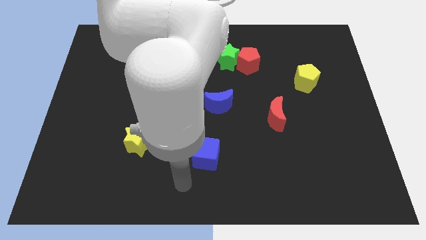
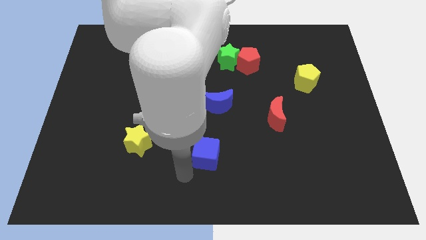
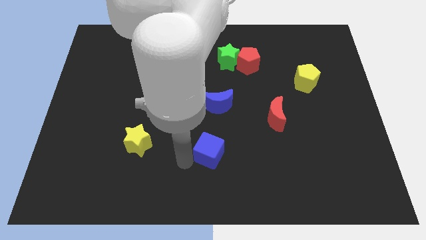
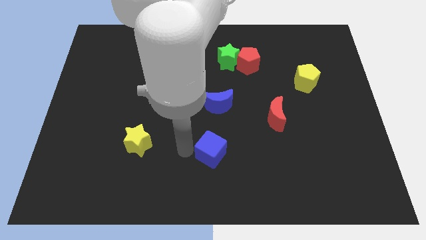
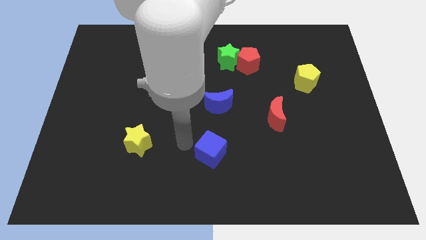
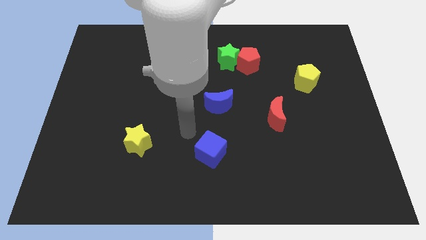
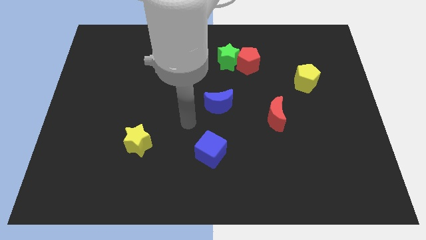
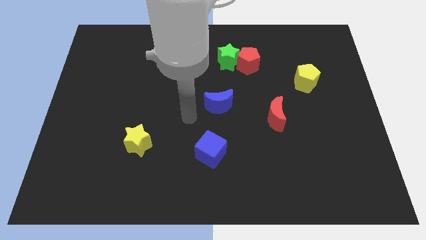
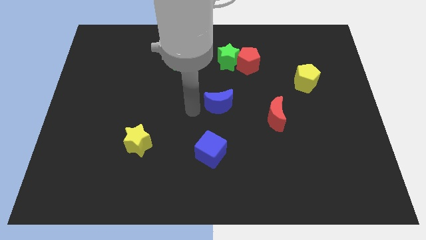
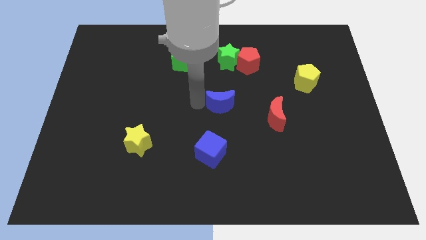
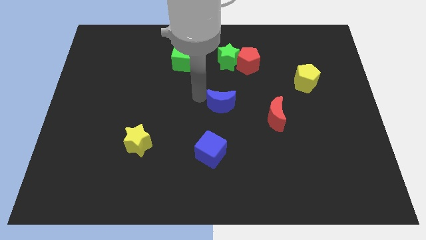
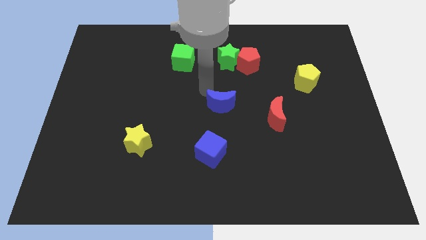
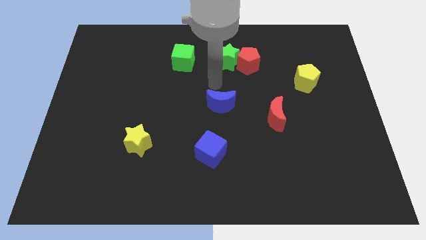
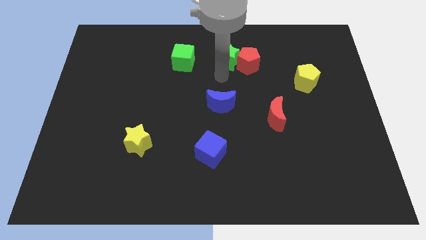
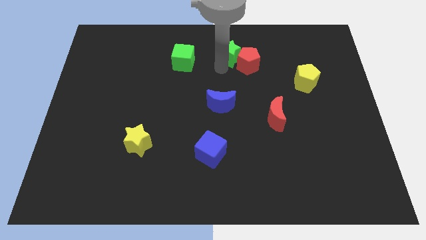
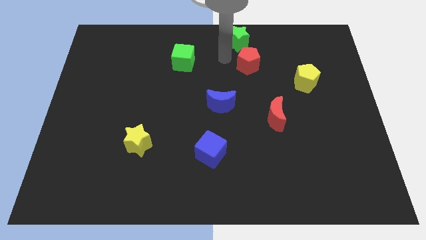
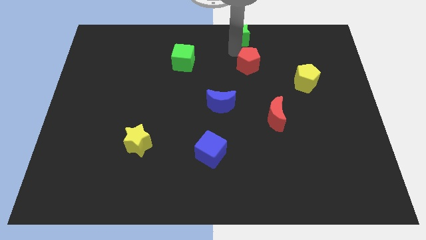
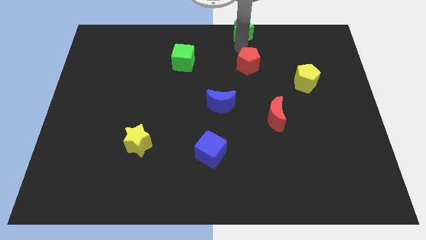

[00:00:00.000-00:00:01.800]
move the red pentagon away from the green star

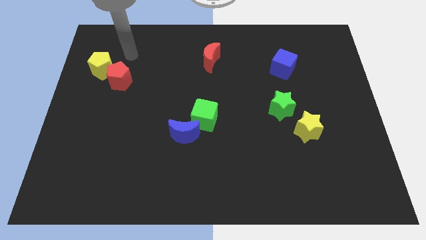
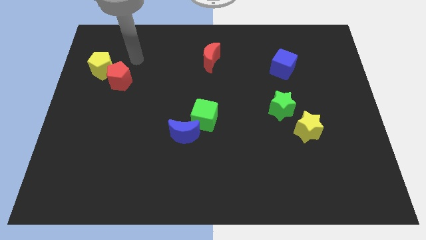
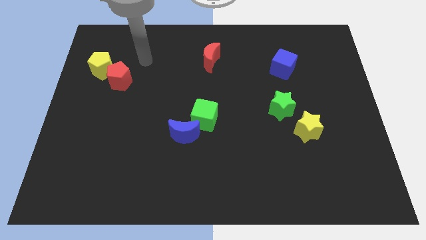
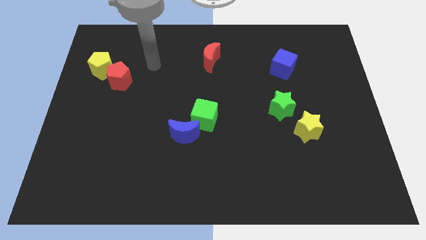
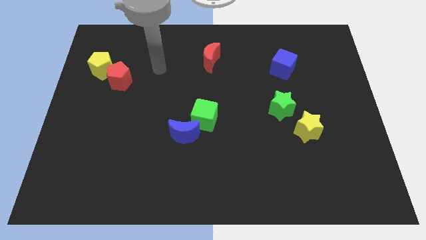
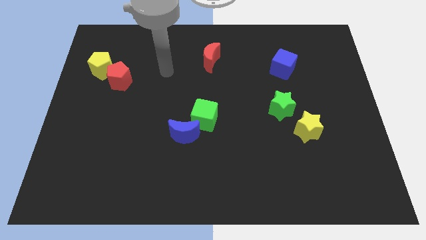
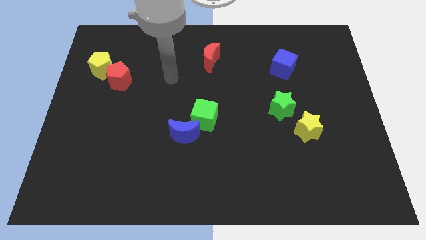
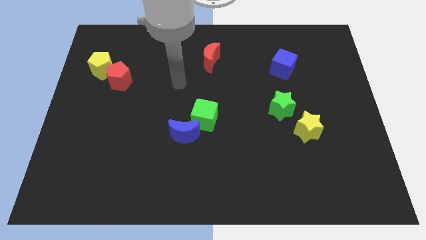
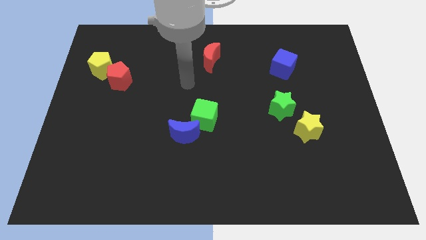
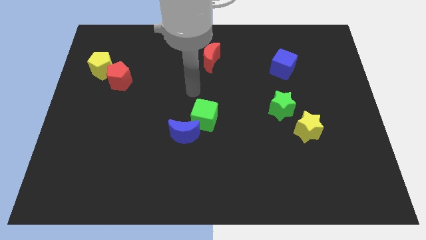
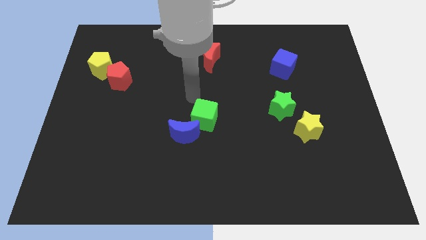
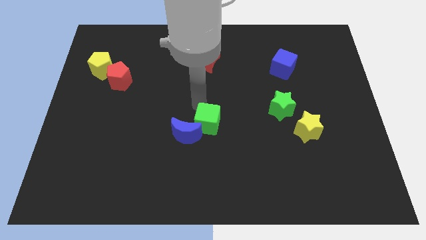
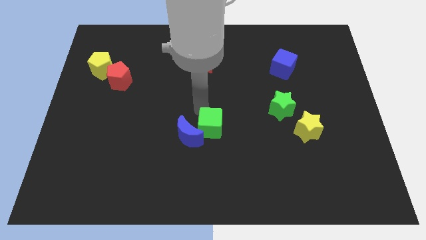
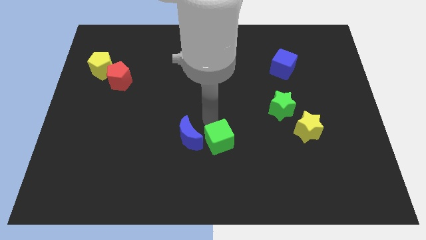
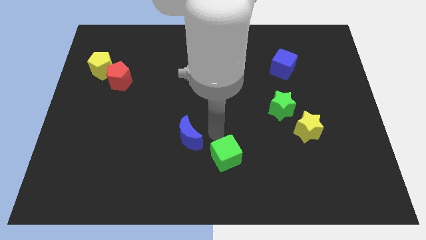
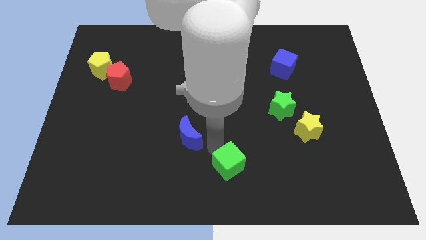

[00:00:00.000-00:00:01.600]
move the blue moon away from the green cube

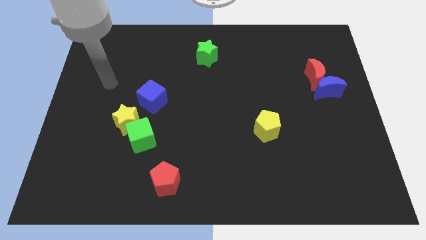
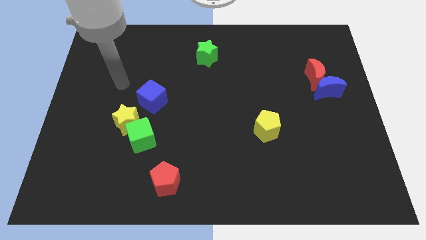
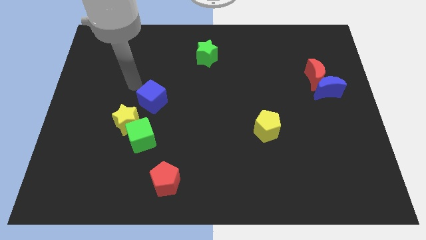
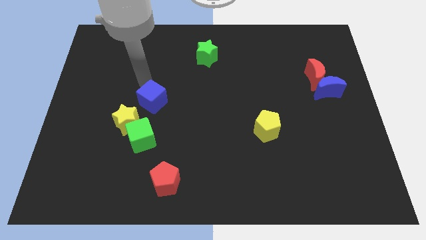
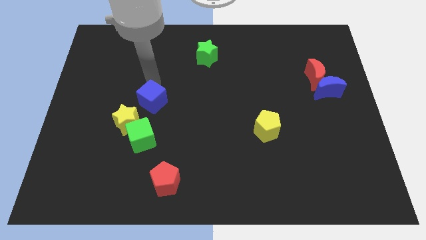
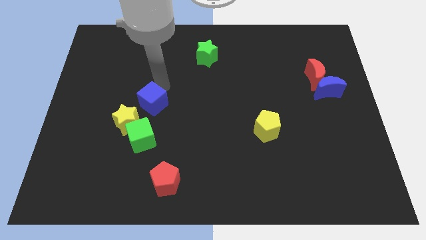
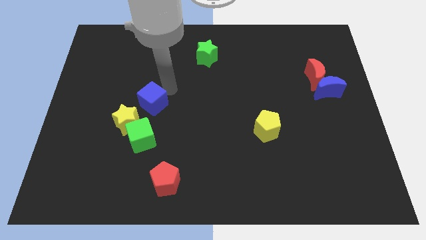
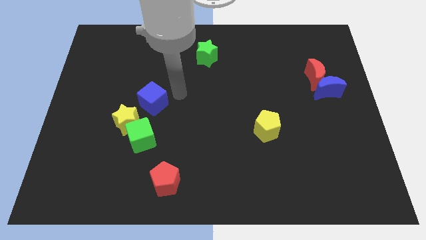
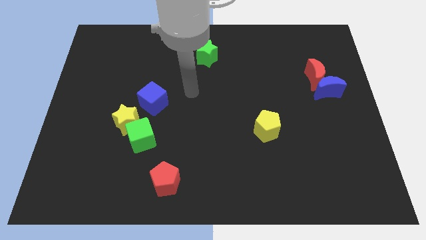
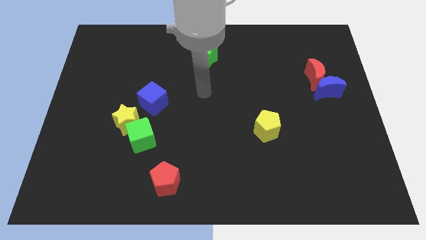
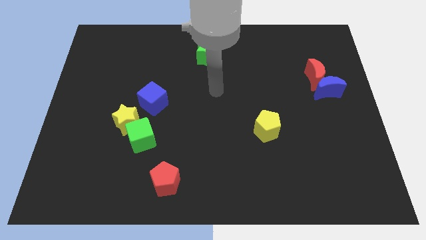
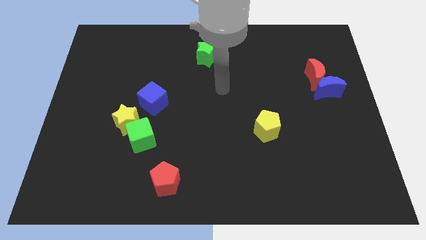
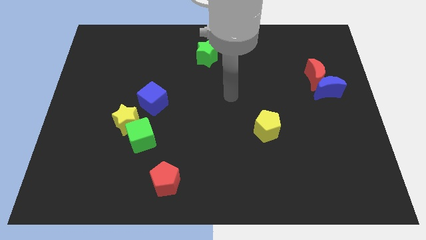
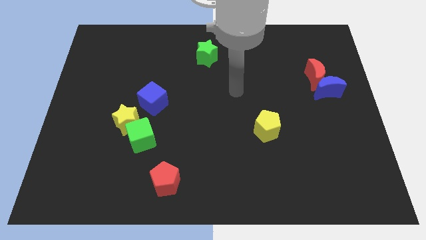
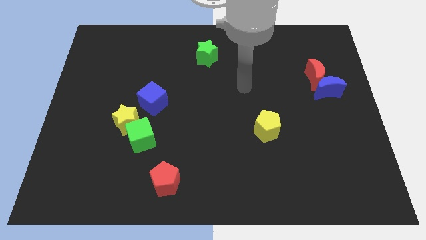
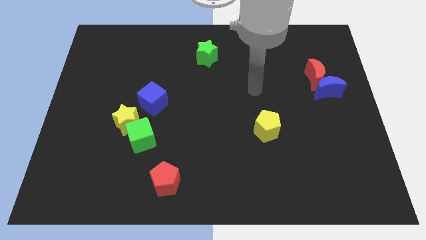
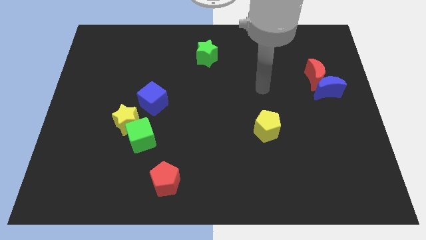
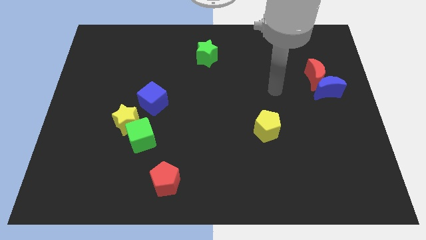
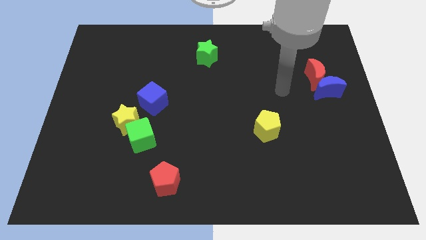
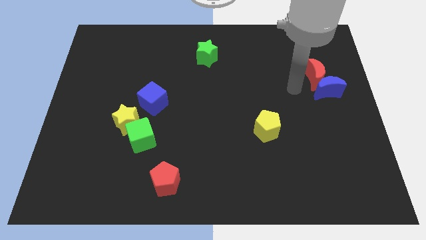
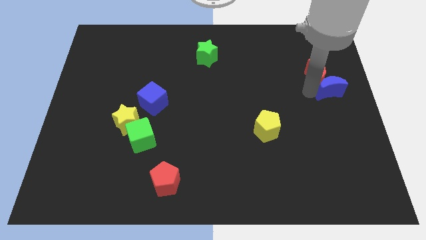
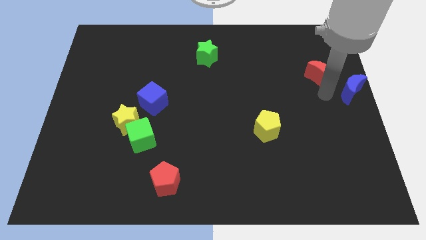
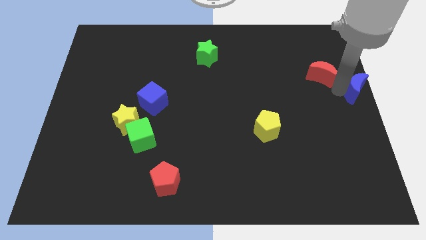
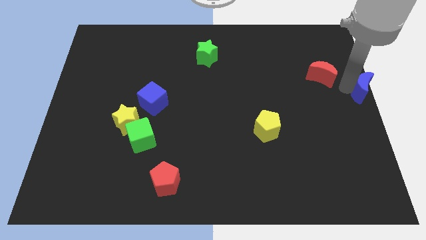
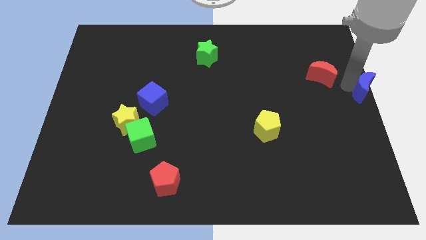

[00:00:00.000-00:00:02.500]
pull the red moon apart from the blue moon

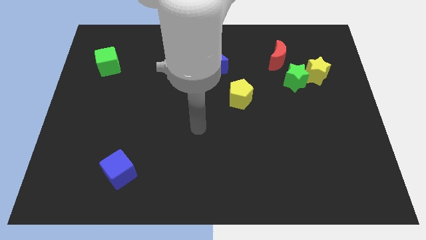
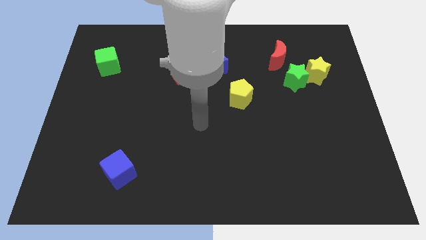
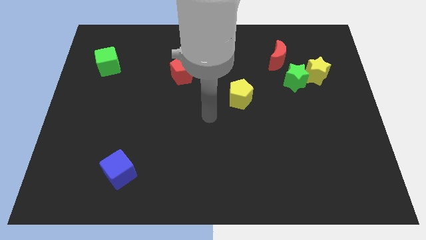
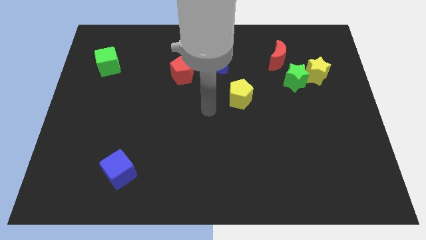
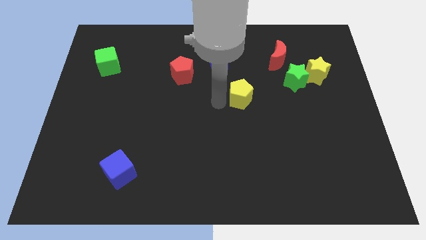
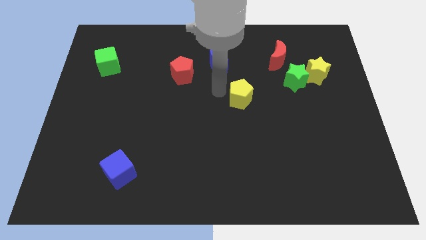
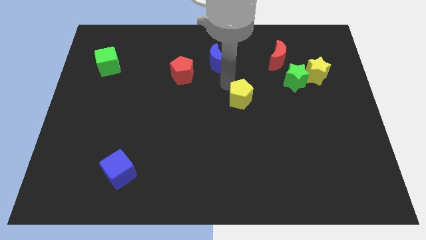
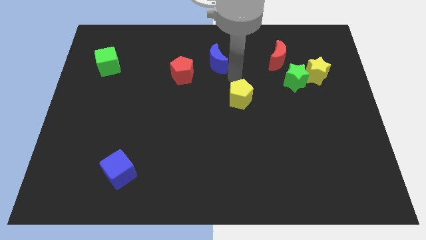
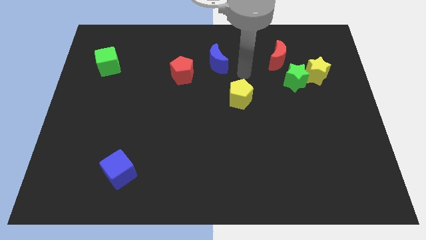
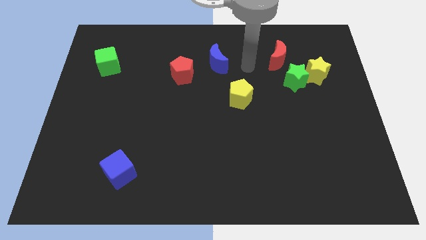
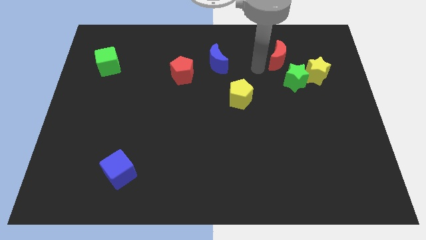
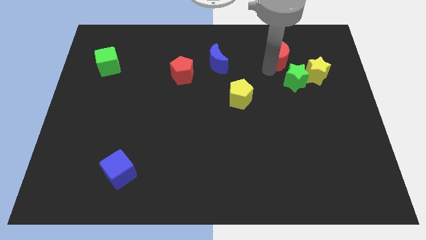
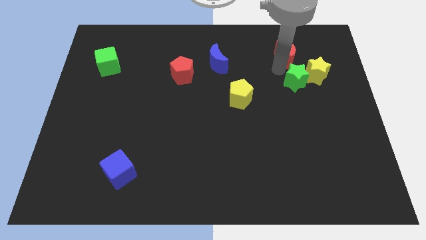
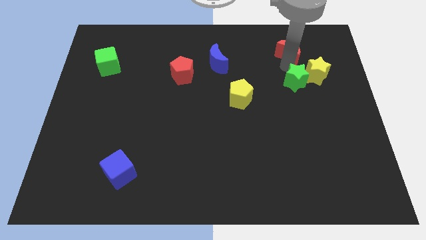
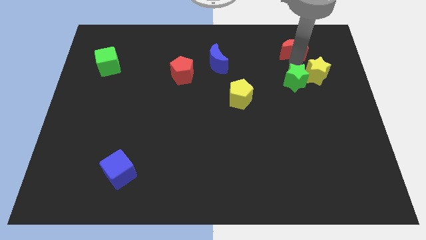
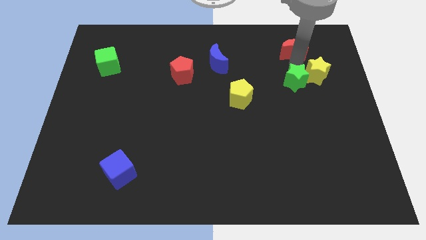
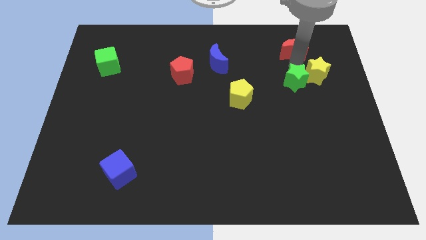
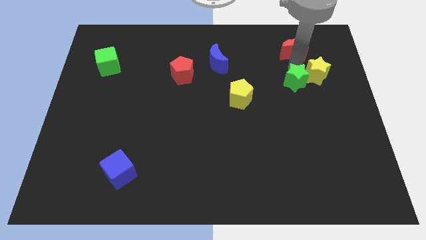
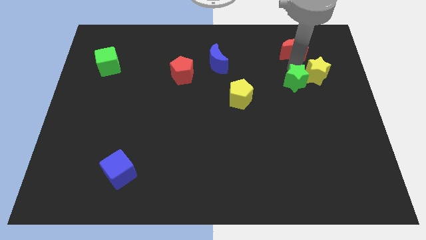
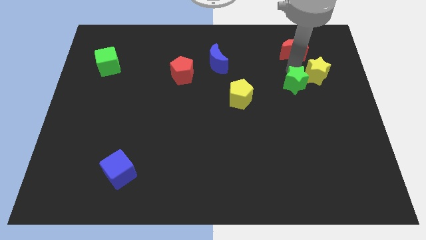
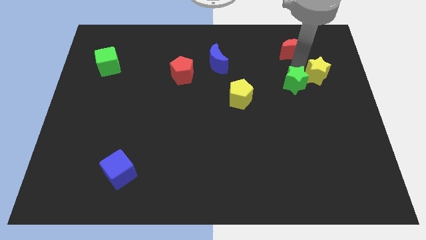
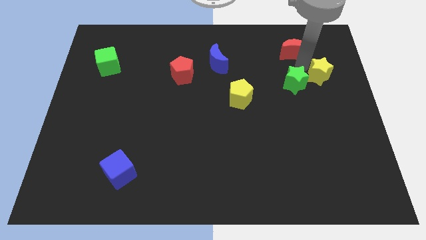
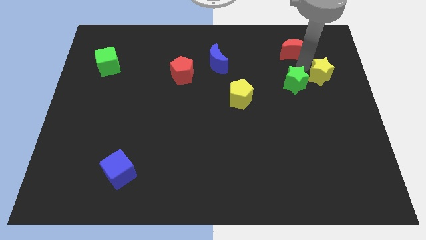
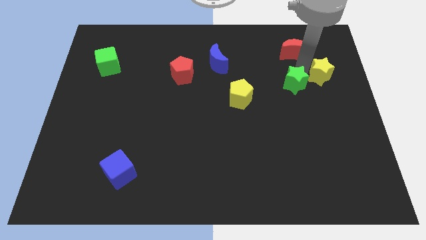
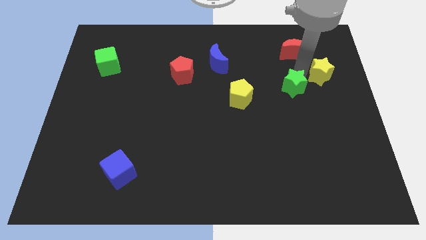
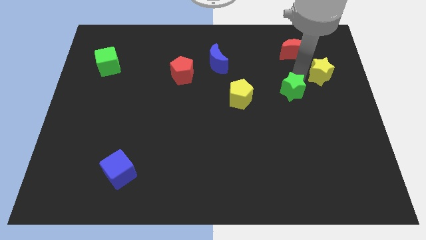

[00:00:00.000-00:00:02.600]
separate the green star from the yellow star and red moon

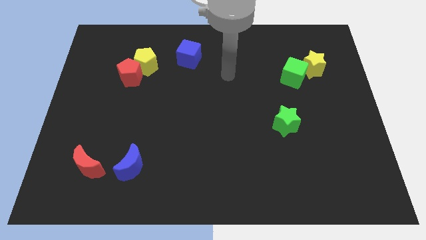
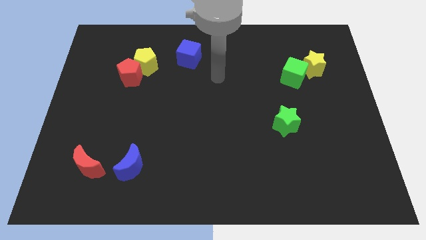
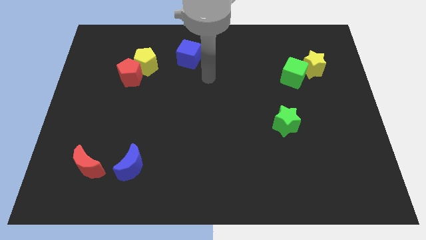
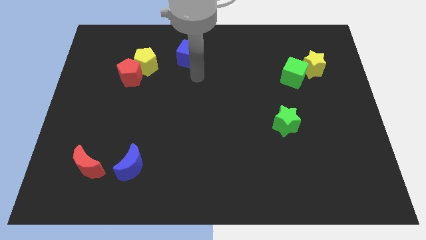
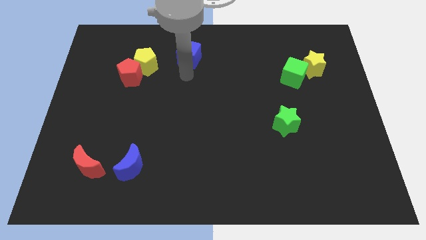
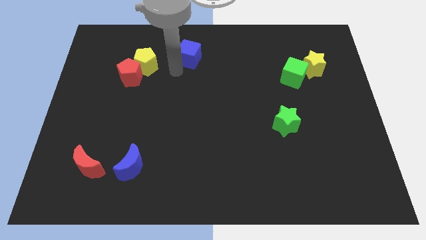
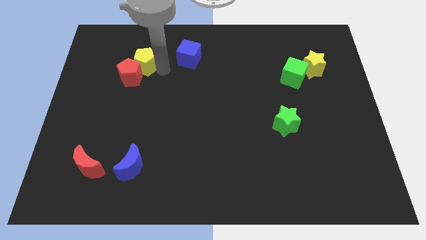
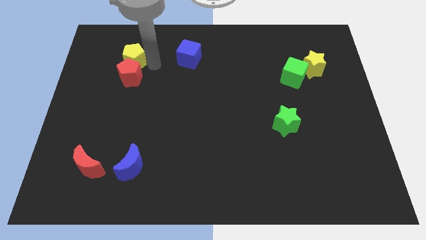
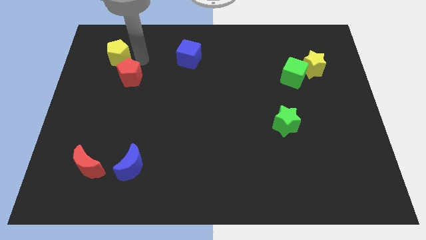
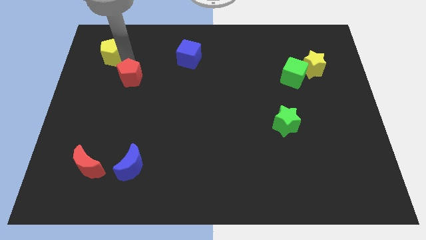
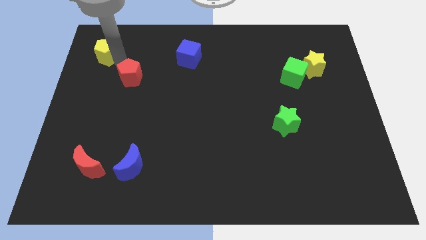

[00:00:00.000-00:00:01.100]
move the red pentagon away from the yellow pentagon
